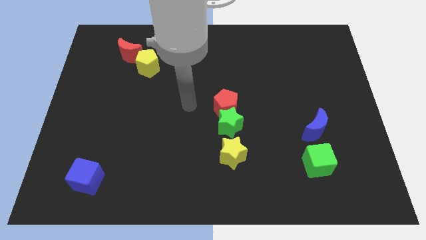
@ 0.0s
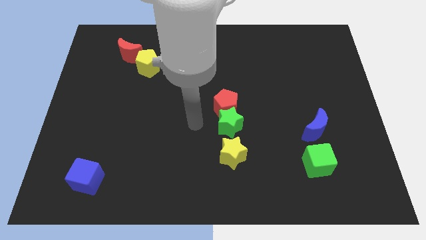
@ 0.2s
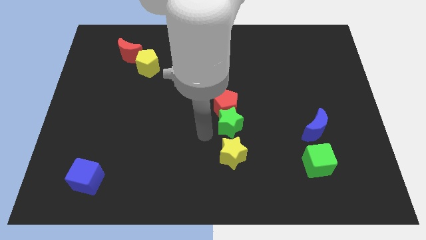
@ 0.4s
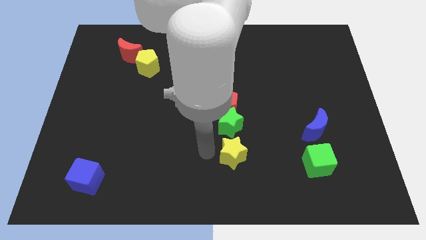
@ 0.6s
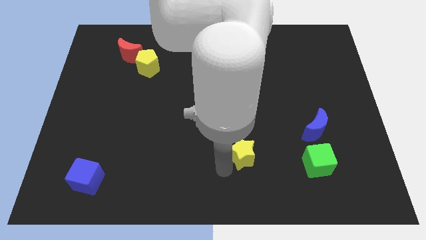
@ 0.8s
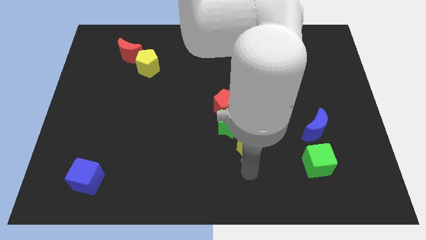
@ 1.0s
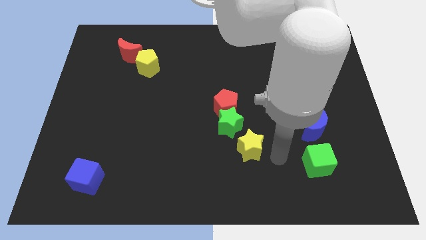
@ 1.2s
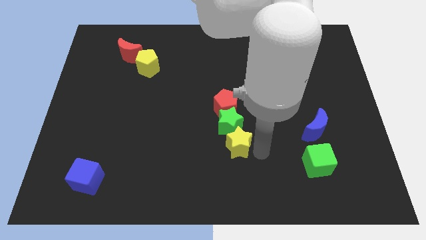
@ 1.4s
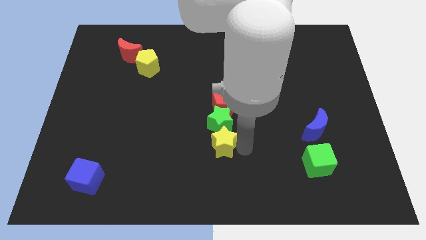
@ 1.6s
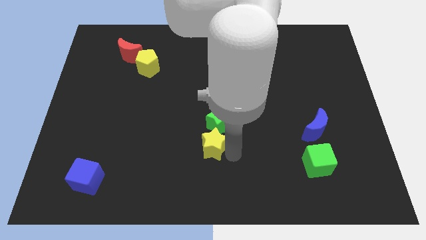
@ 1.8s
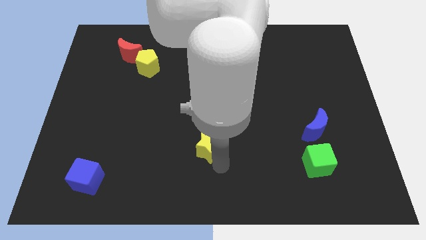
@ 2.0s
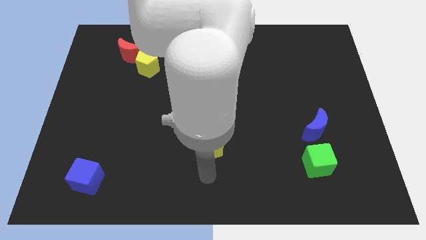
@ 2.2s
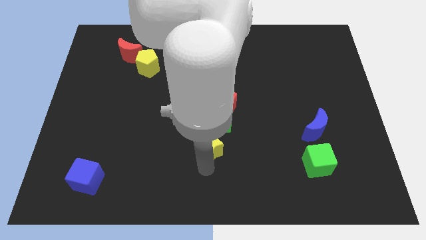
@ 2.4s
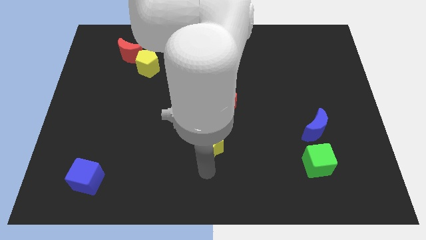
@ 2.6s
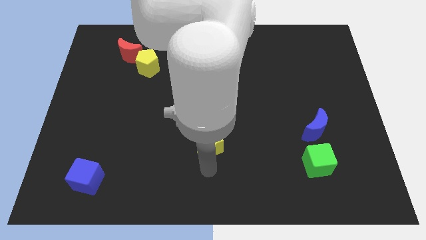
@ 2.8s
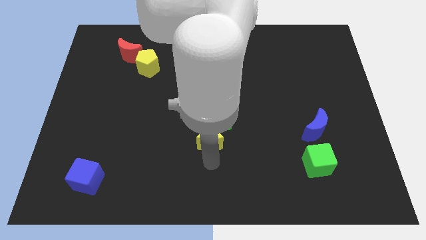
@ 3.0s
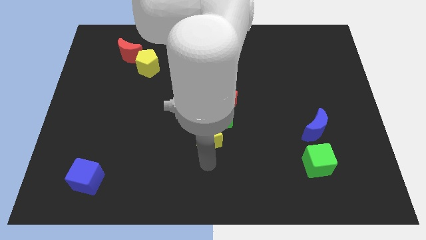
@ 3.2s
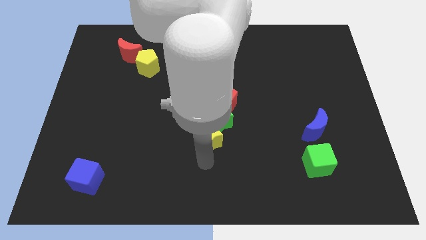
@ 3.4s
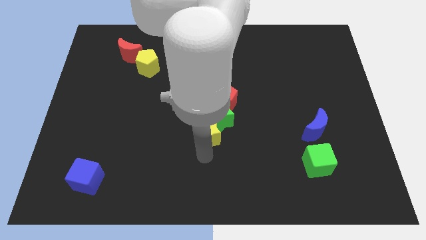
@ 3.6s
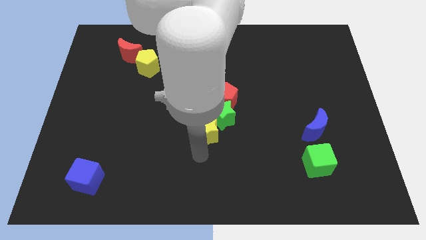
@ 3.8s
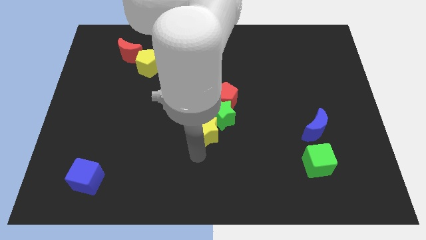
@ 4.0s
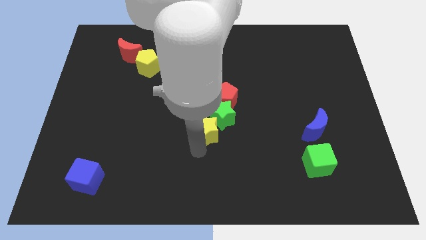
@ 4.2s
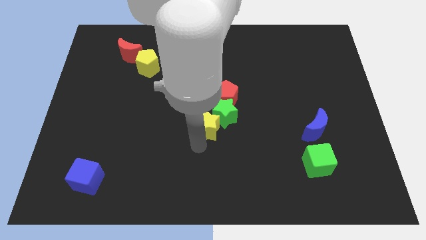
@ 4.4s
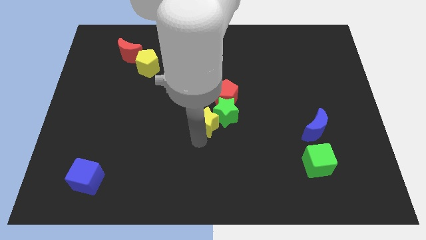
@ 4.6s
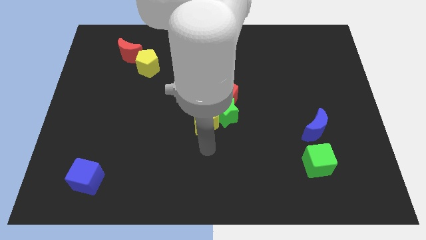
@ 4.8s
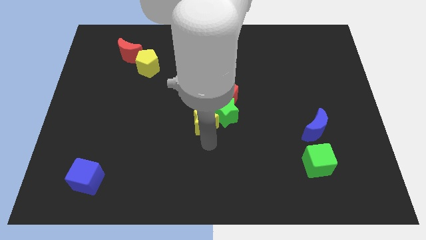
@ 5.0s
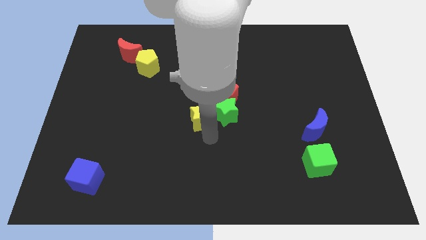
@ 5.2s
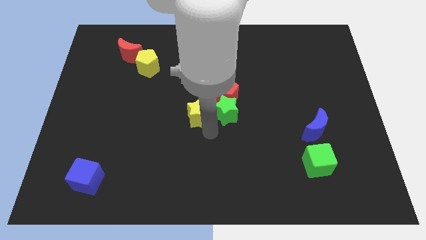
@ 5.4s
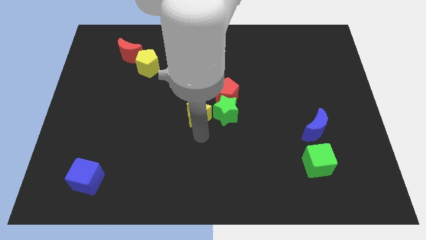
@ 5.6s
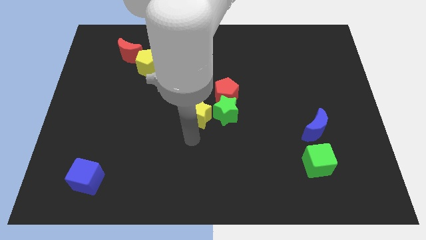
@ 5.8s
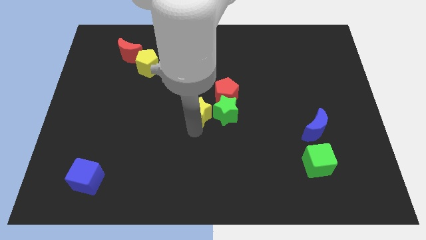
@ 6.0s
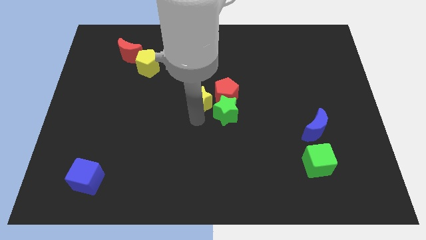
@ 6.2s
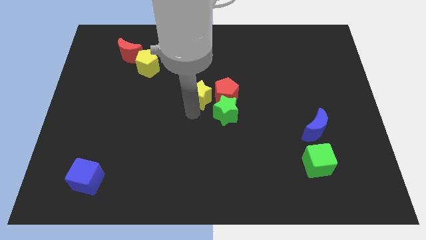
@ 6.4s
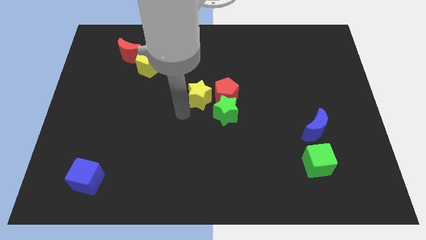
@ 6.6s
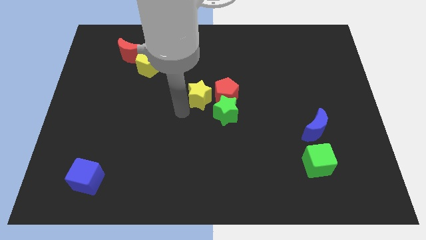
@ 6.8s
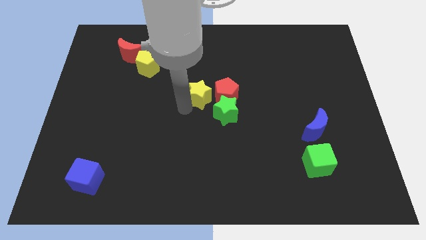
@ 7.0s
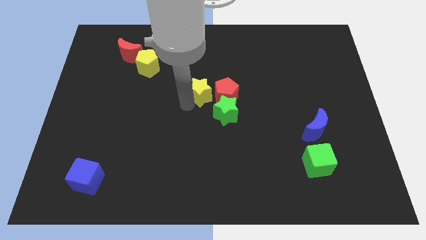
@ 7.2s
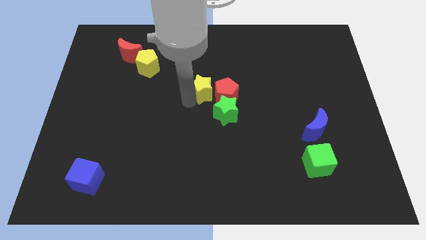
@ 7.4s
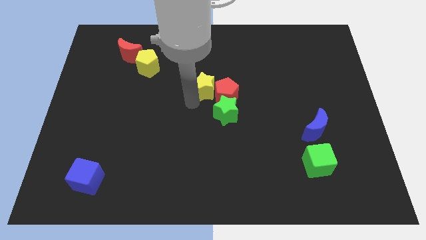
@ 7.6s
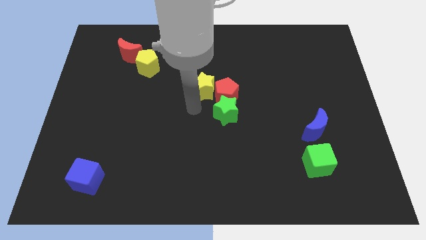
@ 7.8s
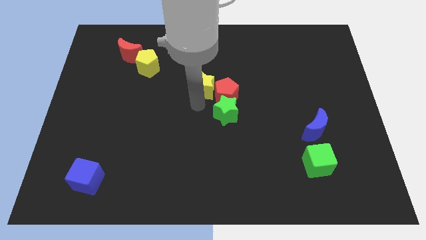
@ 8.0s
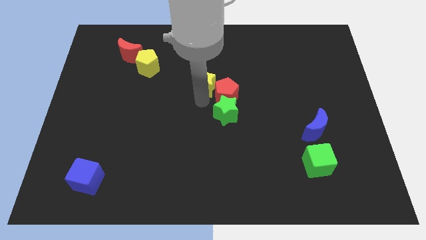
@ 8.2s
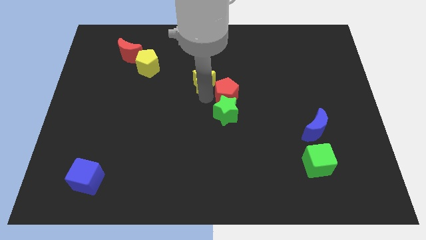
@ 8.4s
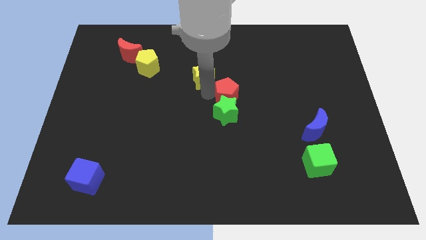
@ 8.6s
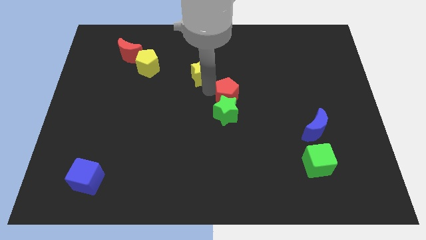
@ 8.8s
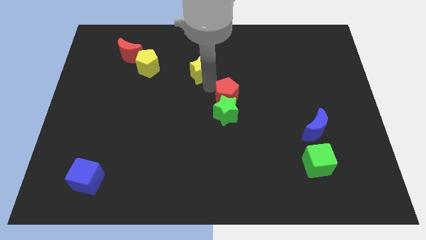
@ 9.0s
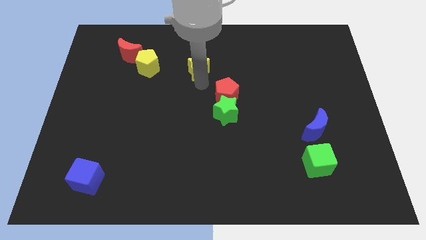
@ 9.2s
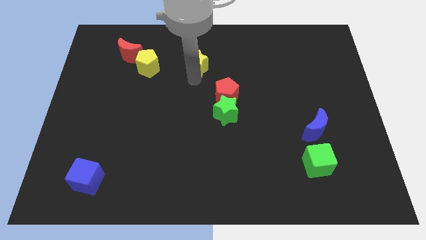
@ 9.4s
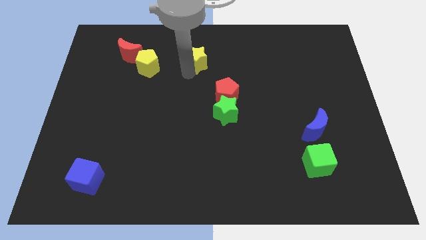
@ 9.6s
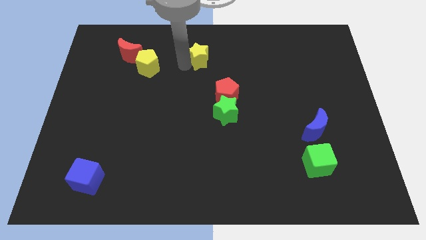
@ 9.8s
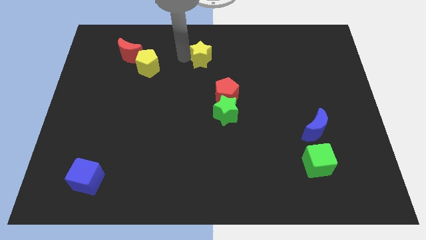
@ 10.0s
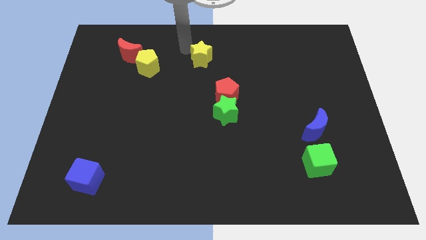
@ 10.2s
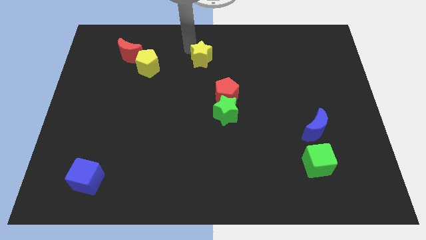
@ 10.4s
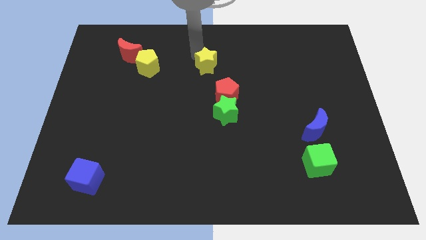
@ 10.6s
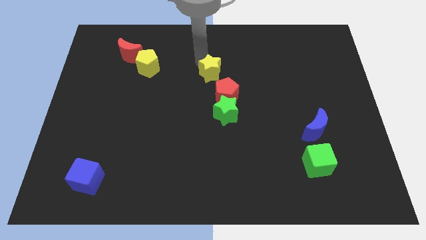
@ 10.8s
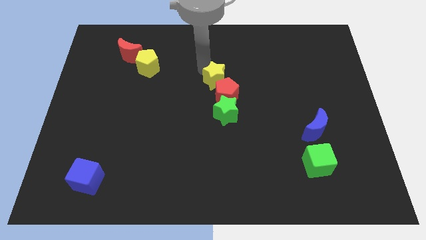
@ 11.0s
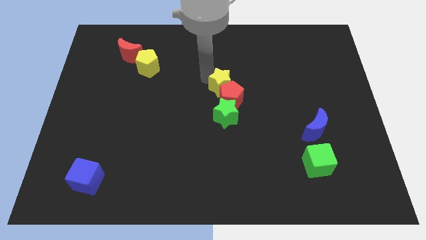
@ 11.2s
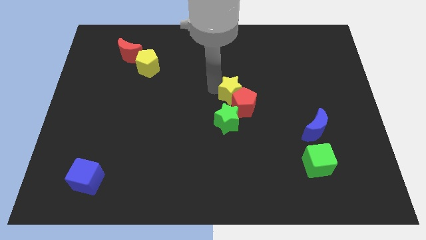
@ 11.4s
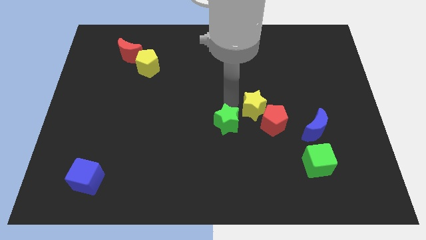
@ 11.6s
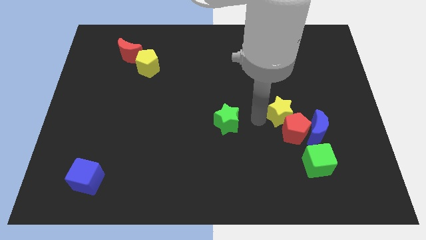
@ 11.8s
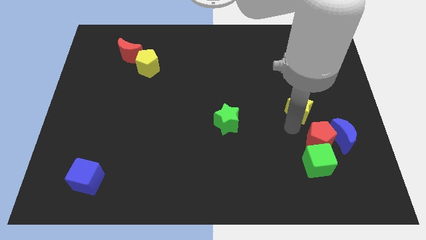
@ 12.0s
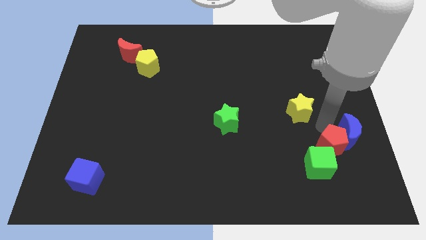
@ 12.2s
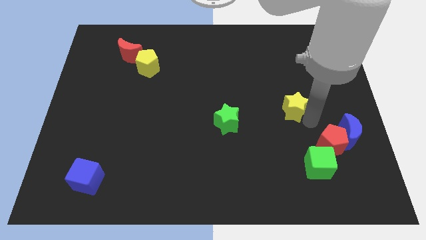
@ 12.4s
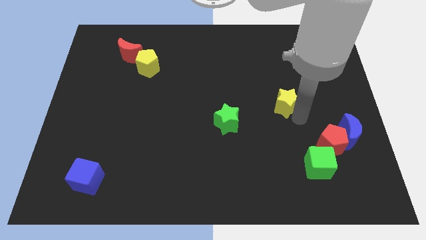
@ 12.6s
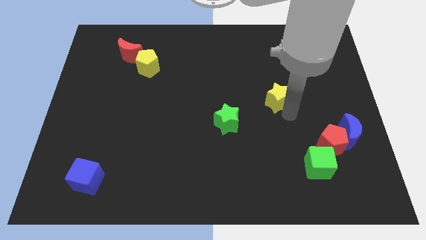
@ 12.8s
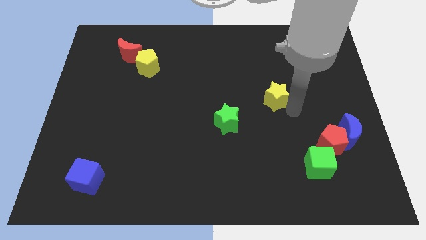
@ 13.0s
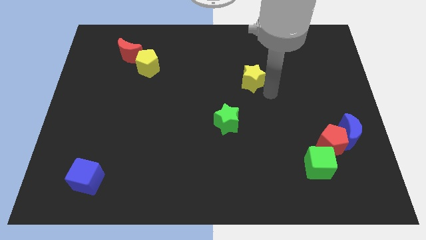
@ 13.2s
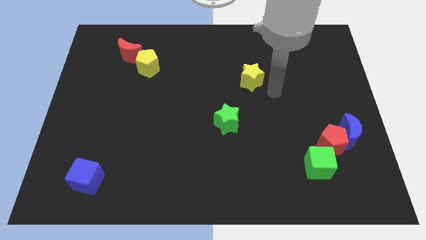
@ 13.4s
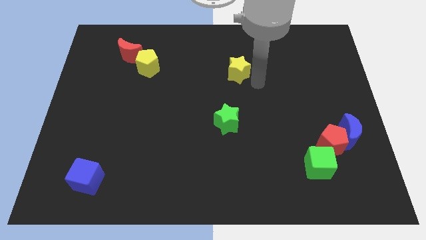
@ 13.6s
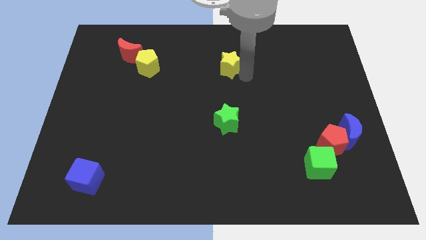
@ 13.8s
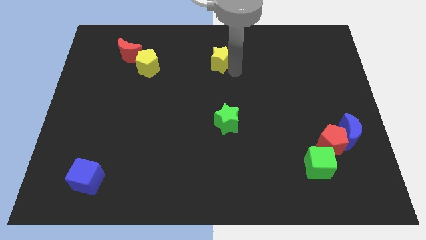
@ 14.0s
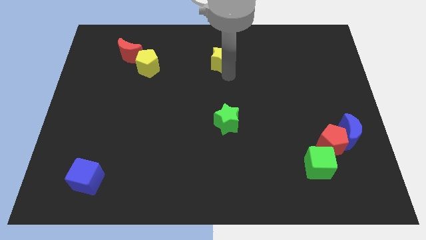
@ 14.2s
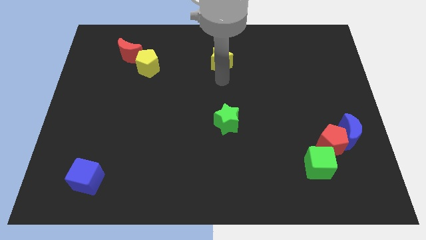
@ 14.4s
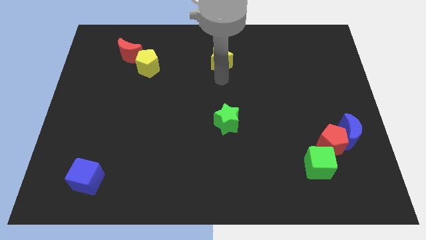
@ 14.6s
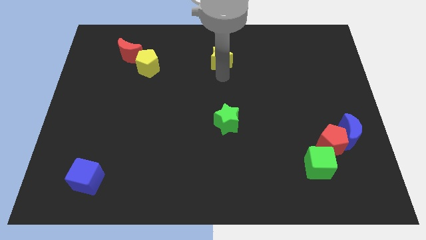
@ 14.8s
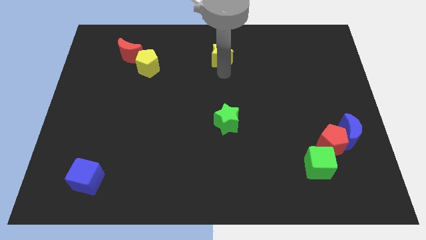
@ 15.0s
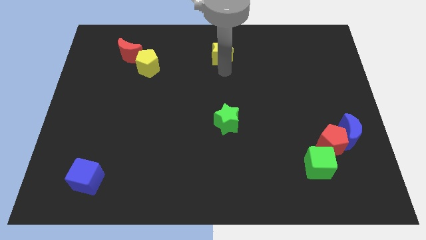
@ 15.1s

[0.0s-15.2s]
put the yellow star to the top
